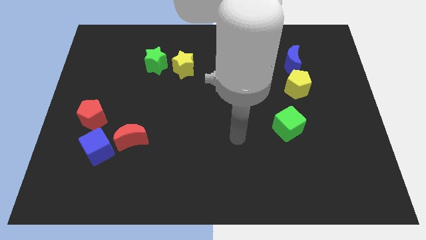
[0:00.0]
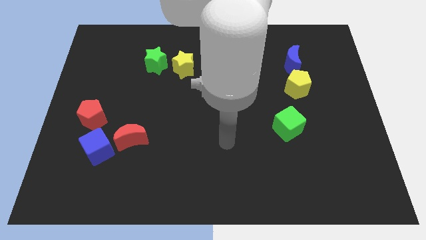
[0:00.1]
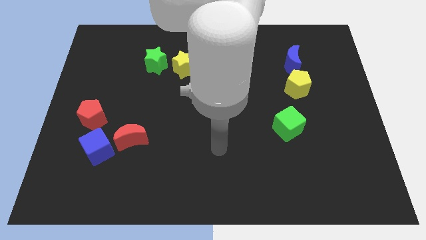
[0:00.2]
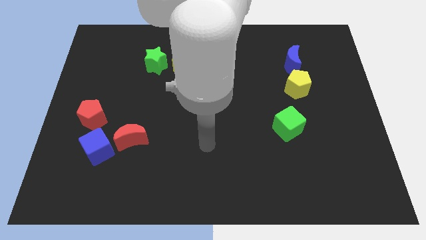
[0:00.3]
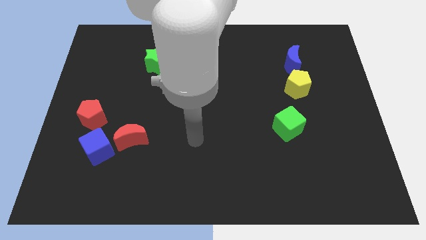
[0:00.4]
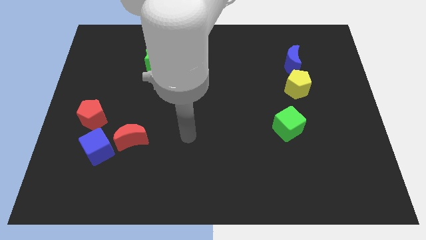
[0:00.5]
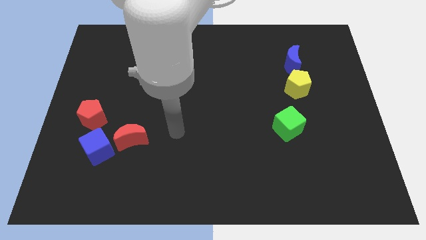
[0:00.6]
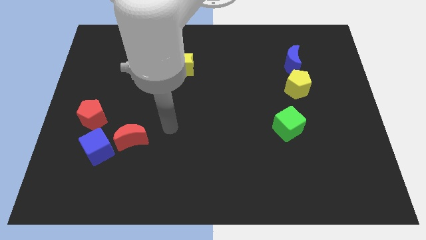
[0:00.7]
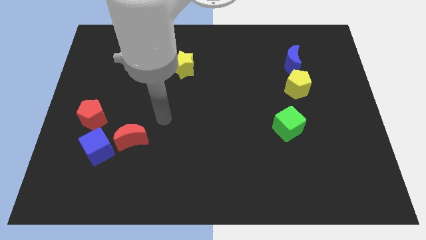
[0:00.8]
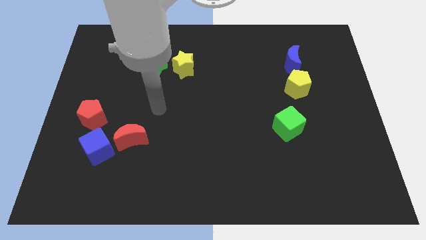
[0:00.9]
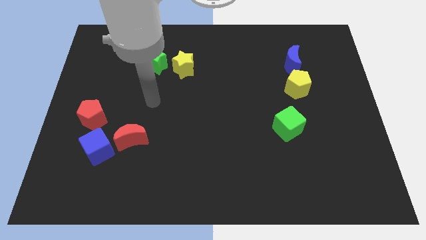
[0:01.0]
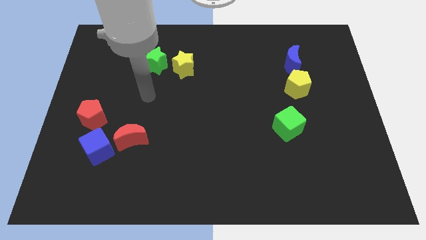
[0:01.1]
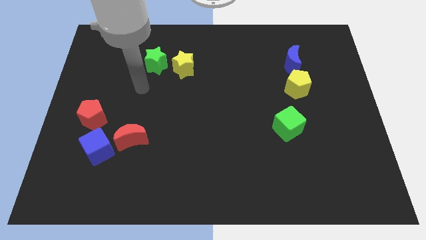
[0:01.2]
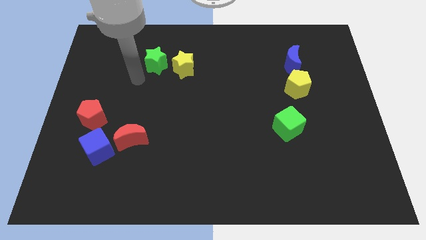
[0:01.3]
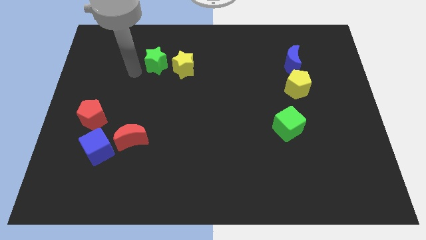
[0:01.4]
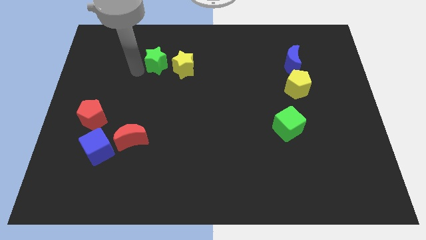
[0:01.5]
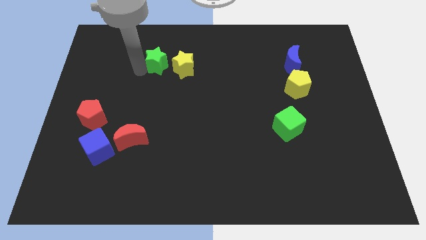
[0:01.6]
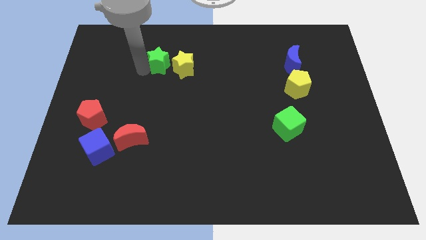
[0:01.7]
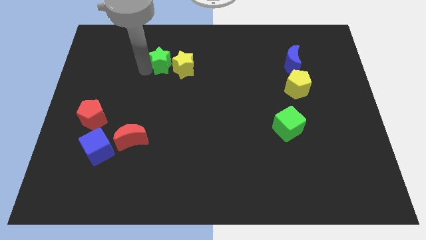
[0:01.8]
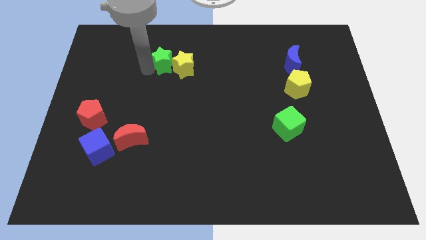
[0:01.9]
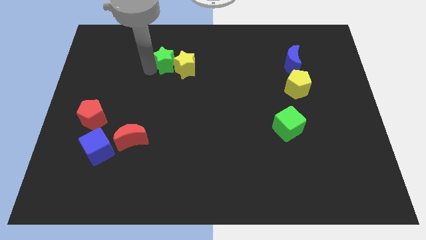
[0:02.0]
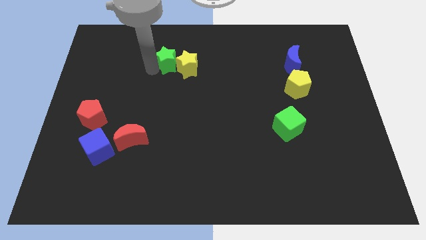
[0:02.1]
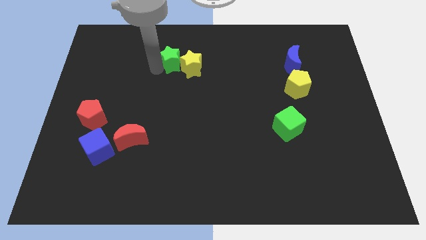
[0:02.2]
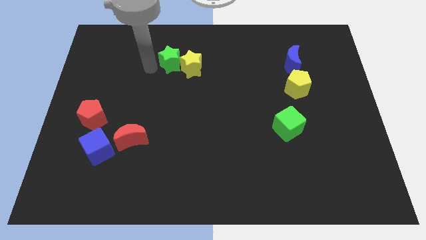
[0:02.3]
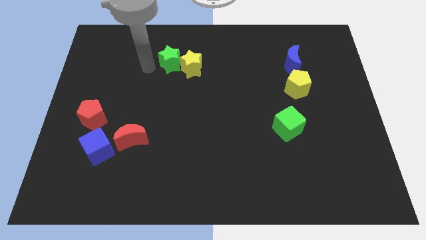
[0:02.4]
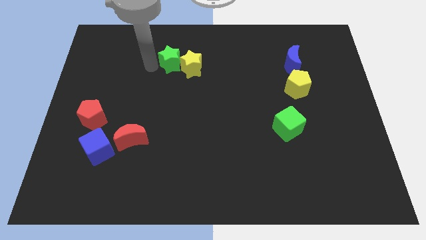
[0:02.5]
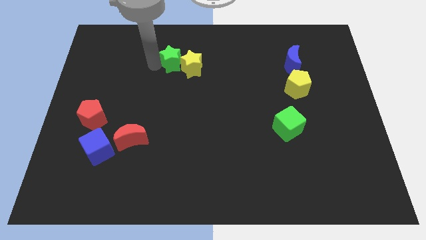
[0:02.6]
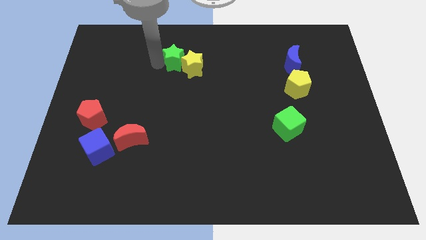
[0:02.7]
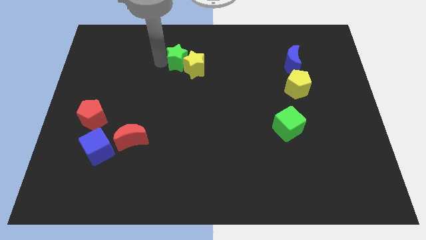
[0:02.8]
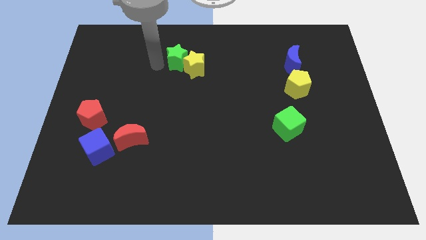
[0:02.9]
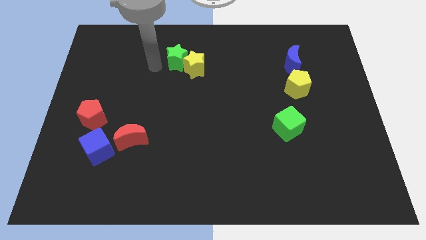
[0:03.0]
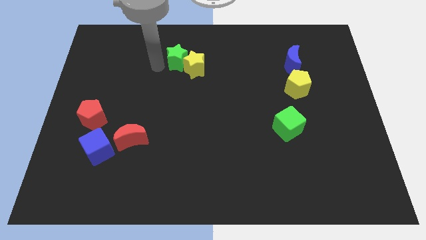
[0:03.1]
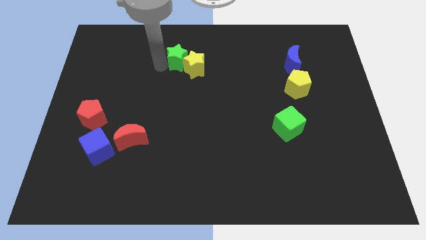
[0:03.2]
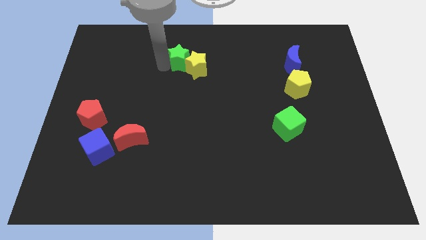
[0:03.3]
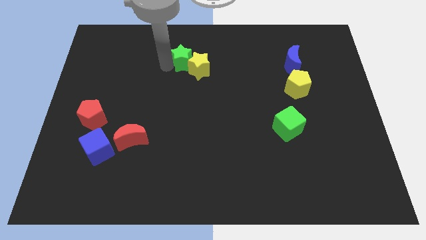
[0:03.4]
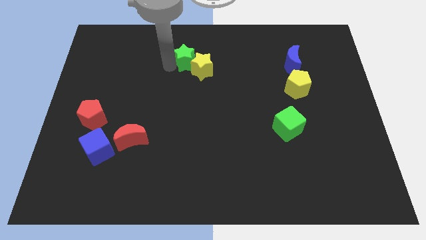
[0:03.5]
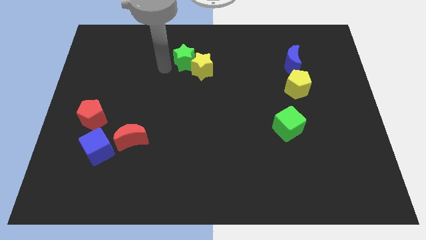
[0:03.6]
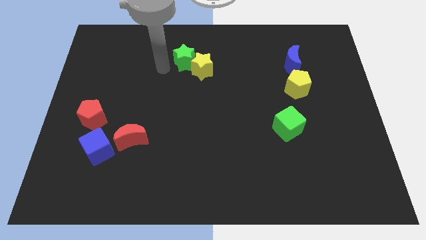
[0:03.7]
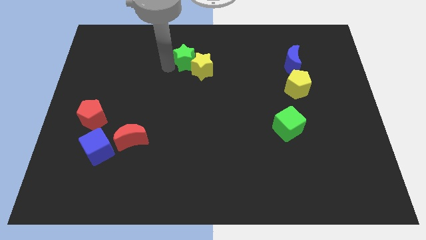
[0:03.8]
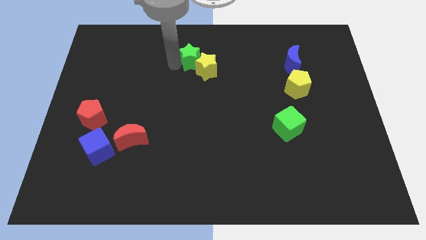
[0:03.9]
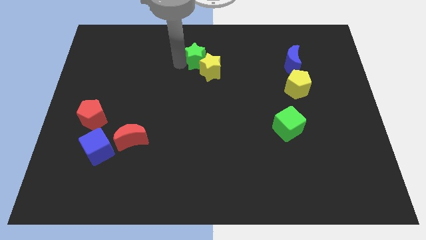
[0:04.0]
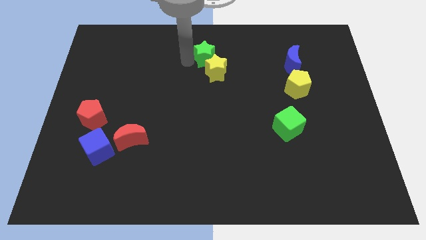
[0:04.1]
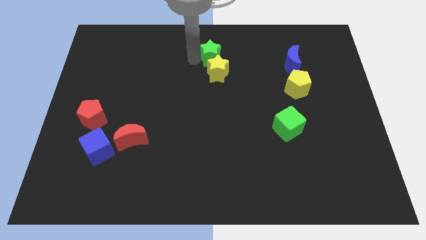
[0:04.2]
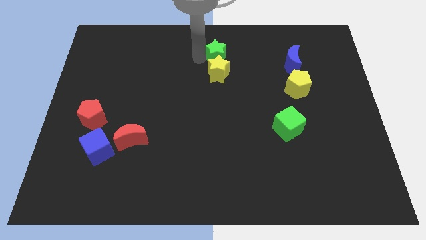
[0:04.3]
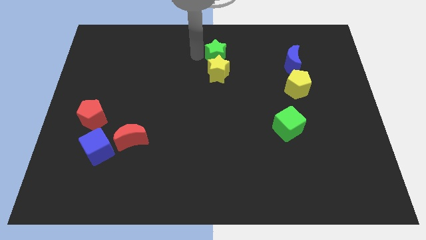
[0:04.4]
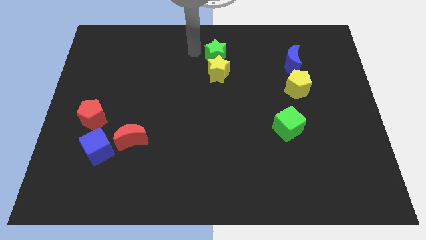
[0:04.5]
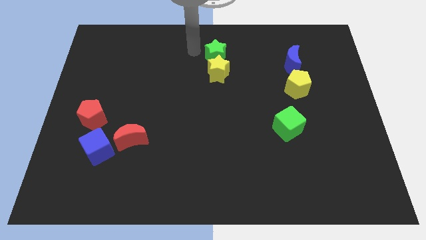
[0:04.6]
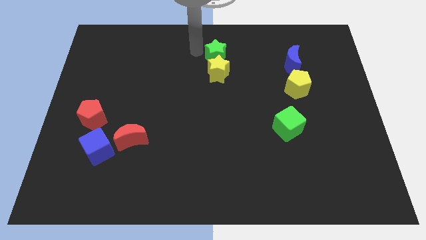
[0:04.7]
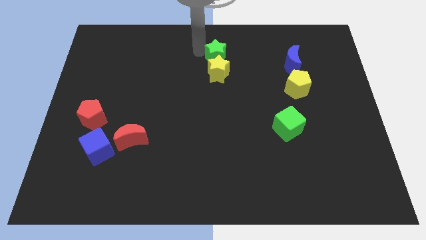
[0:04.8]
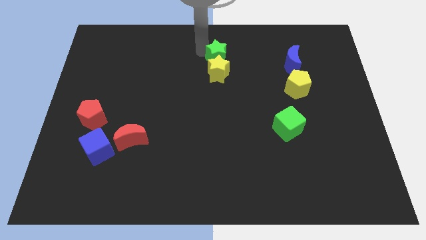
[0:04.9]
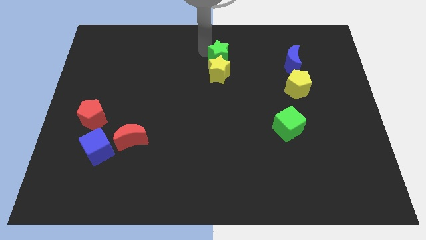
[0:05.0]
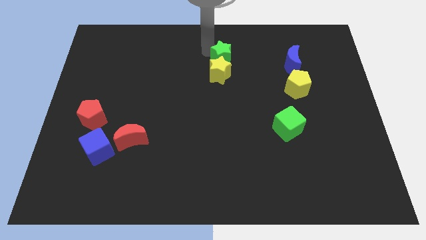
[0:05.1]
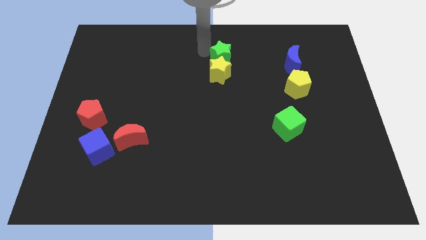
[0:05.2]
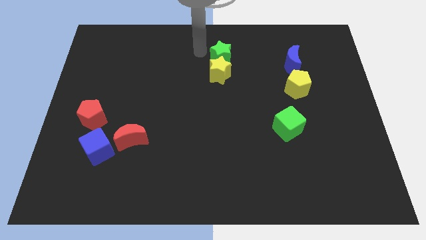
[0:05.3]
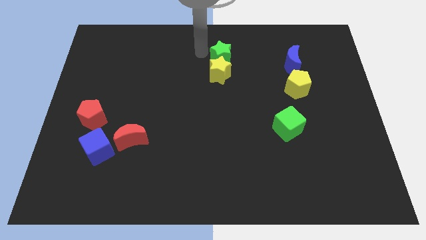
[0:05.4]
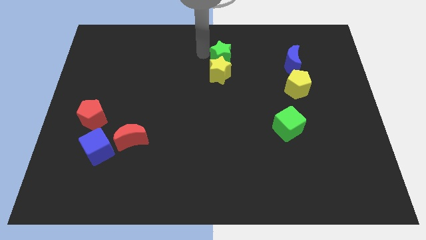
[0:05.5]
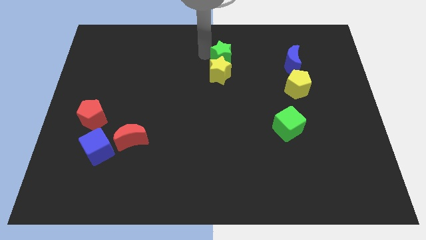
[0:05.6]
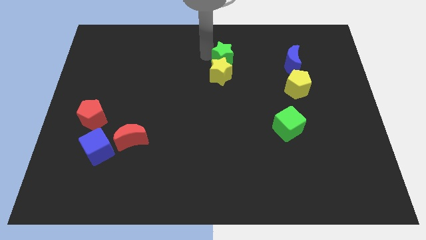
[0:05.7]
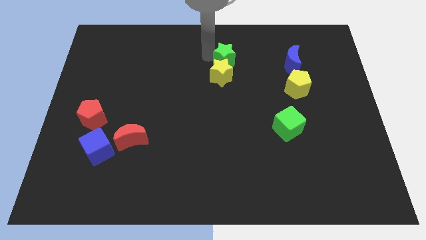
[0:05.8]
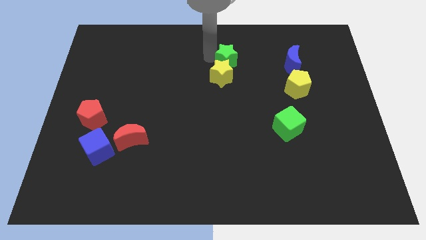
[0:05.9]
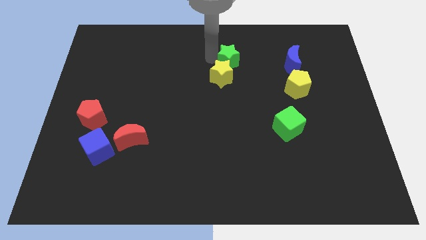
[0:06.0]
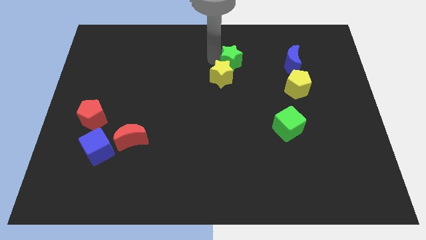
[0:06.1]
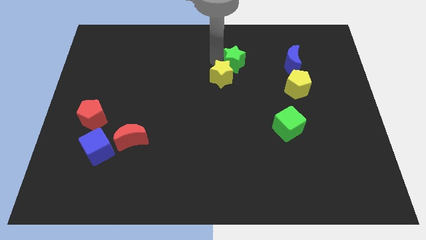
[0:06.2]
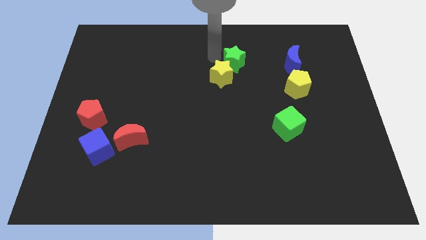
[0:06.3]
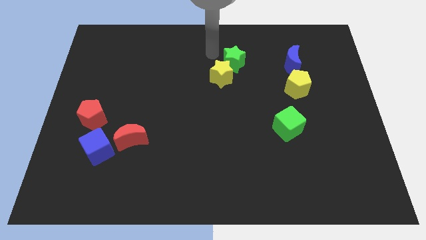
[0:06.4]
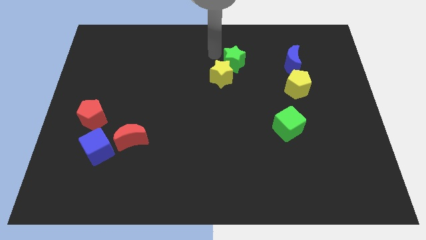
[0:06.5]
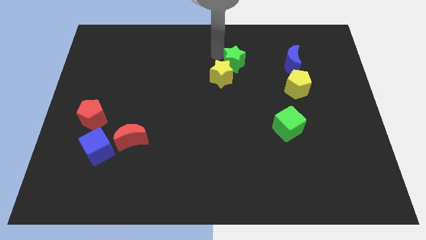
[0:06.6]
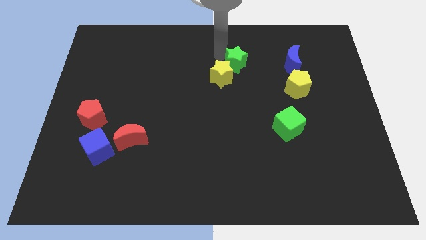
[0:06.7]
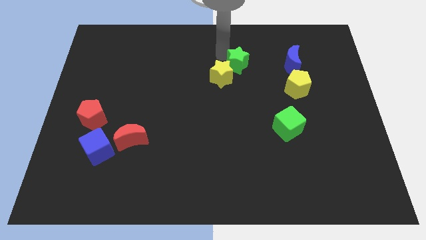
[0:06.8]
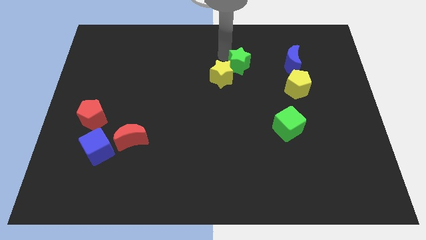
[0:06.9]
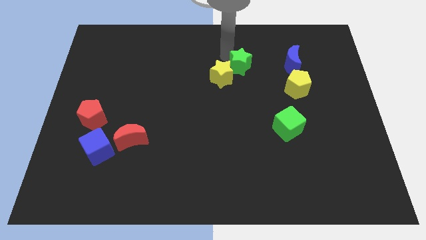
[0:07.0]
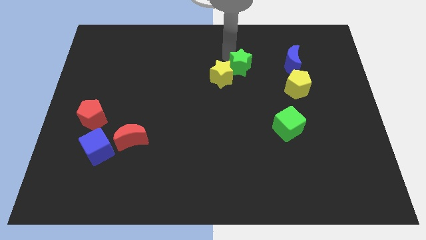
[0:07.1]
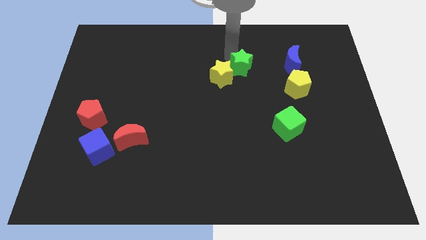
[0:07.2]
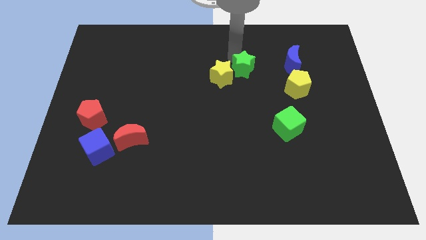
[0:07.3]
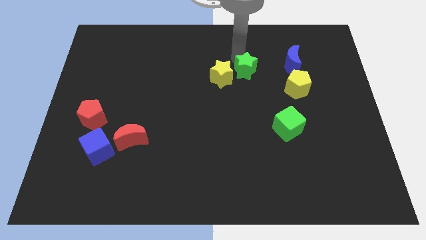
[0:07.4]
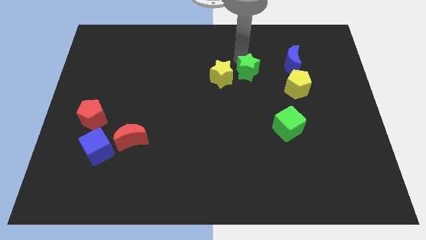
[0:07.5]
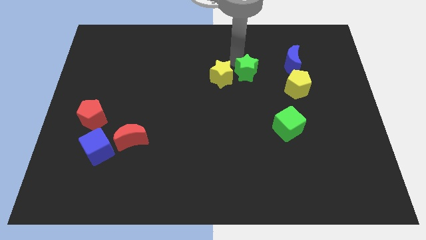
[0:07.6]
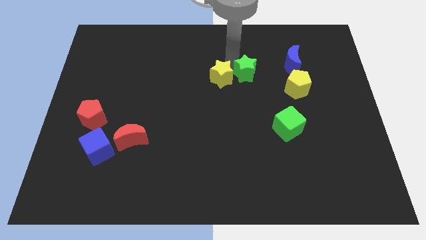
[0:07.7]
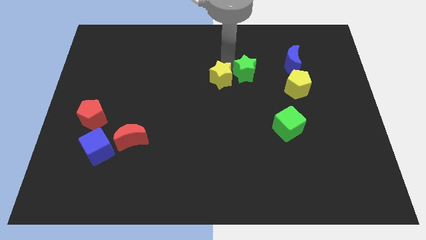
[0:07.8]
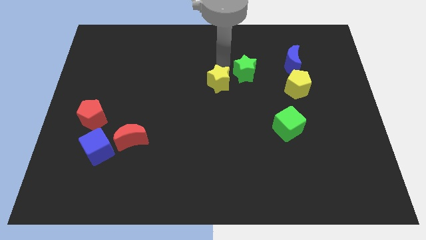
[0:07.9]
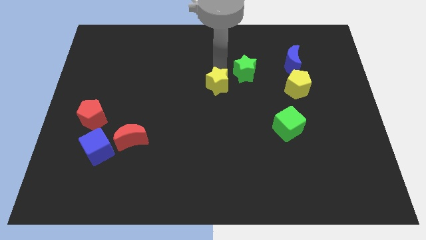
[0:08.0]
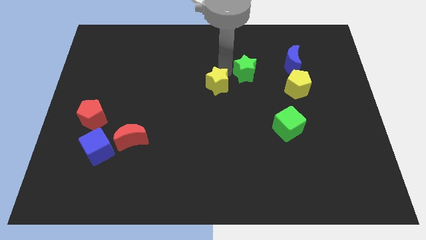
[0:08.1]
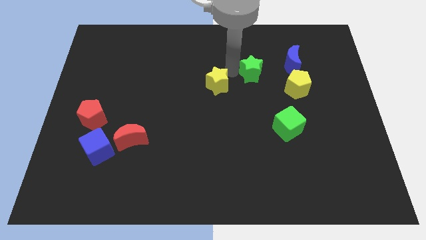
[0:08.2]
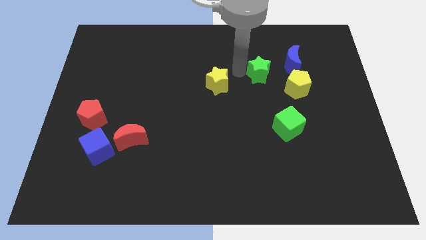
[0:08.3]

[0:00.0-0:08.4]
slide the green star diagonally up and to the left of the yellow pentagon
